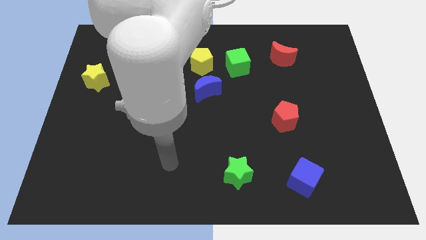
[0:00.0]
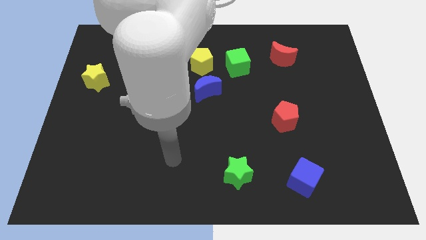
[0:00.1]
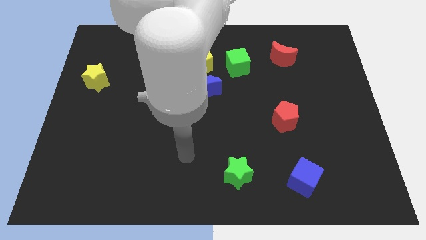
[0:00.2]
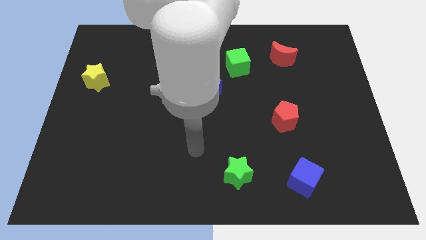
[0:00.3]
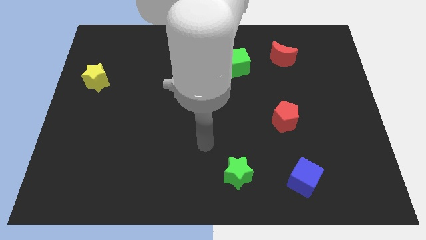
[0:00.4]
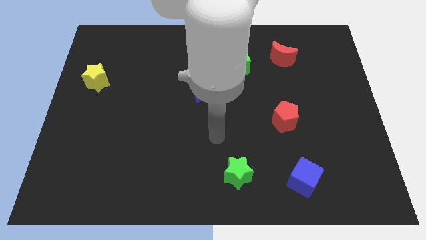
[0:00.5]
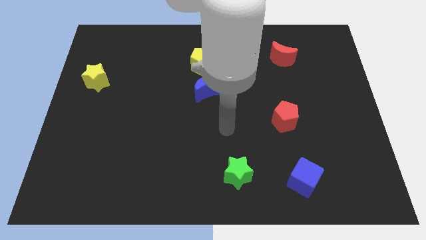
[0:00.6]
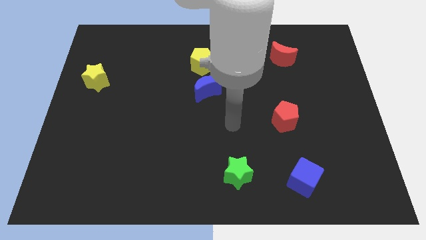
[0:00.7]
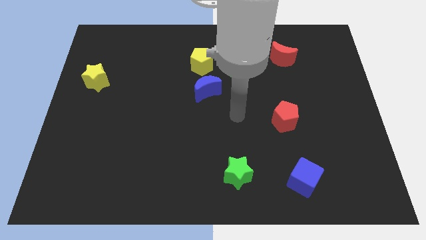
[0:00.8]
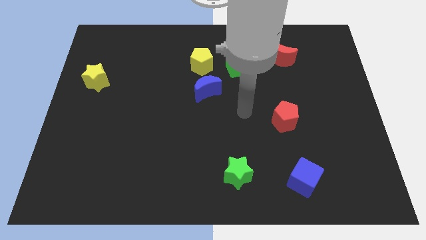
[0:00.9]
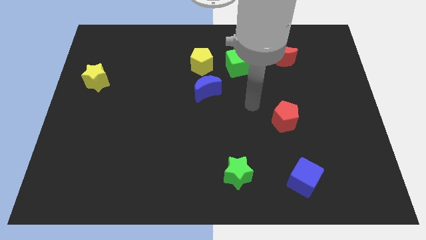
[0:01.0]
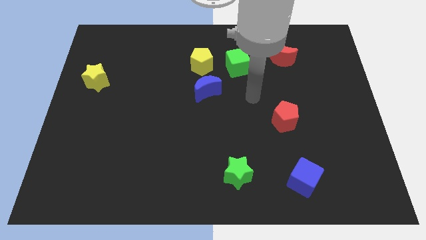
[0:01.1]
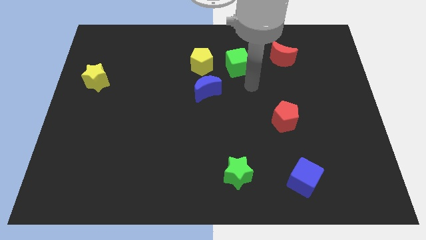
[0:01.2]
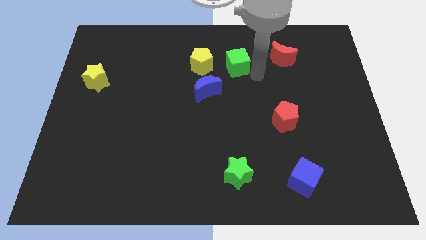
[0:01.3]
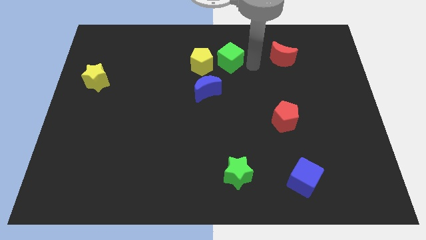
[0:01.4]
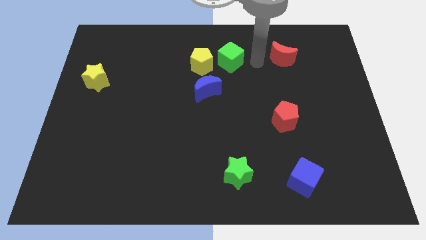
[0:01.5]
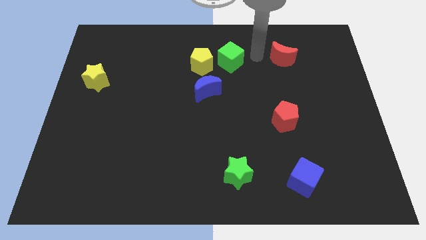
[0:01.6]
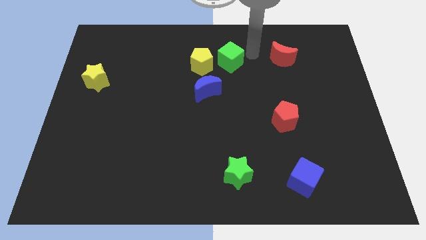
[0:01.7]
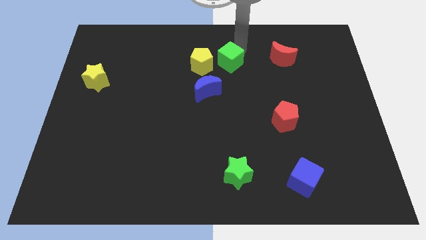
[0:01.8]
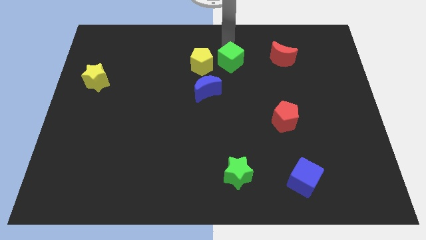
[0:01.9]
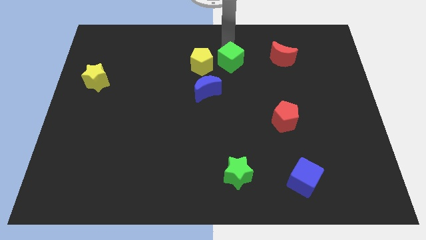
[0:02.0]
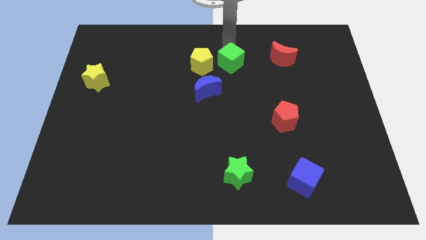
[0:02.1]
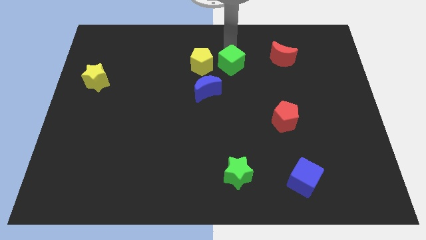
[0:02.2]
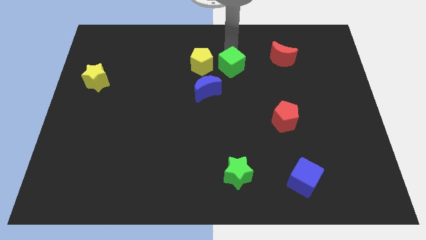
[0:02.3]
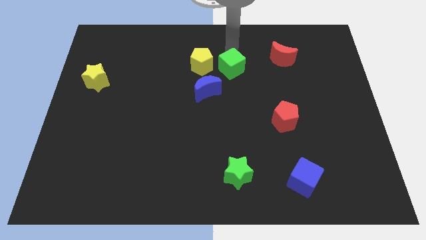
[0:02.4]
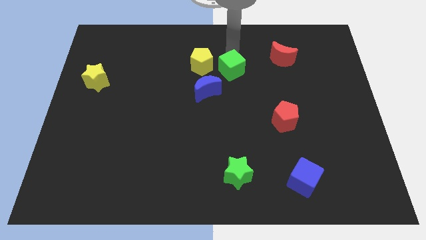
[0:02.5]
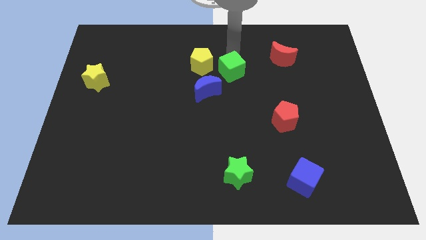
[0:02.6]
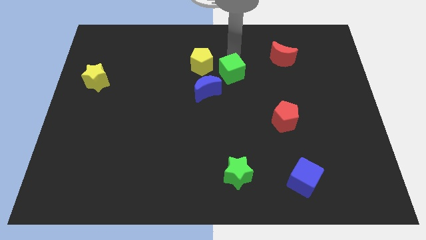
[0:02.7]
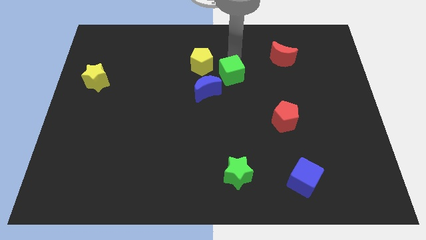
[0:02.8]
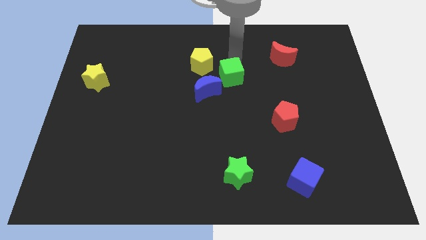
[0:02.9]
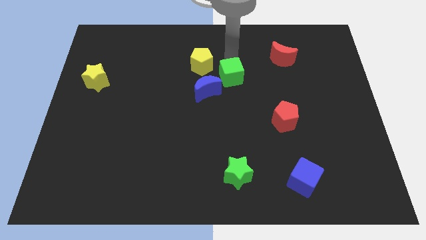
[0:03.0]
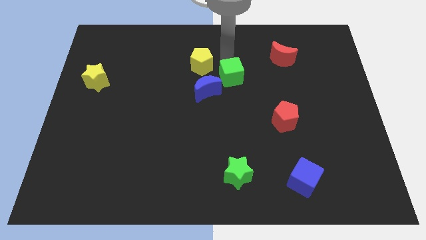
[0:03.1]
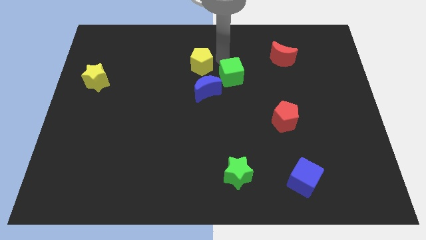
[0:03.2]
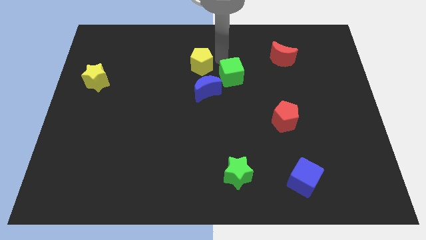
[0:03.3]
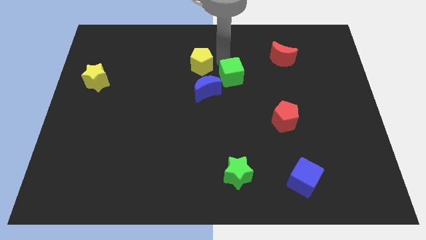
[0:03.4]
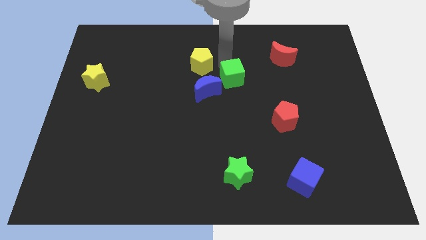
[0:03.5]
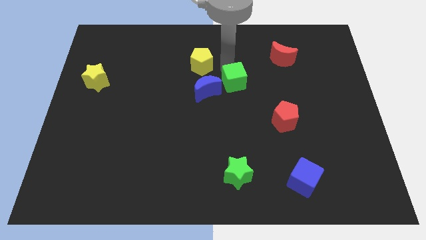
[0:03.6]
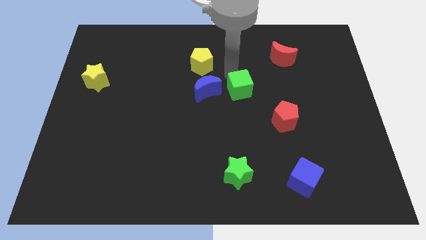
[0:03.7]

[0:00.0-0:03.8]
move the green cube somewhat down

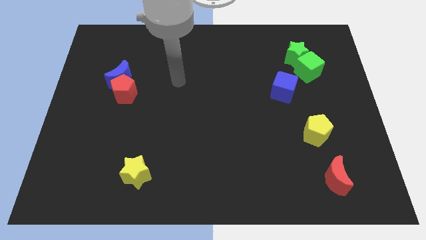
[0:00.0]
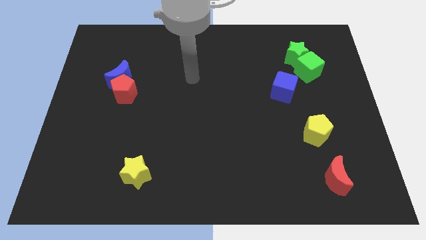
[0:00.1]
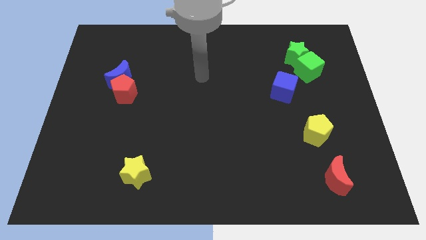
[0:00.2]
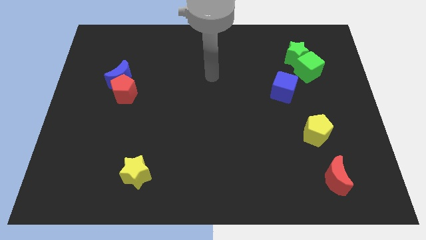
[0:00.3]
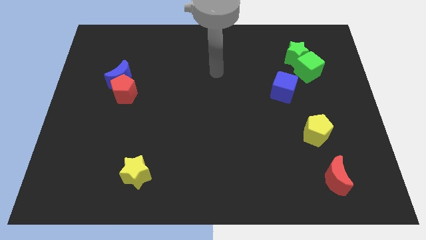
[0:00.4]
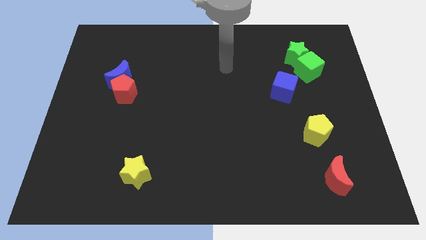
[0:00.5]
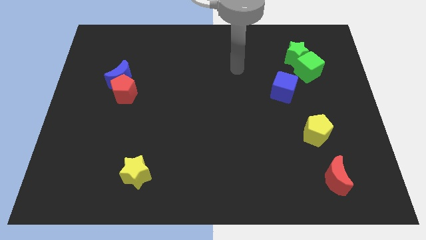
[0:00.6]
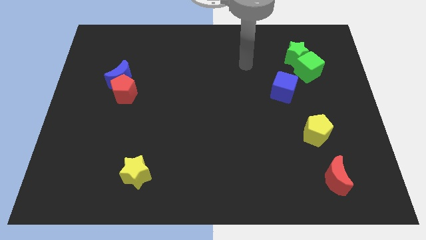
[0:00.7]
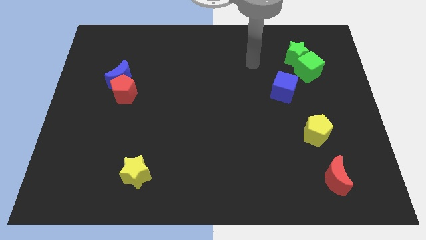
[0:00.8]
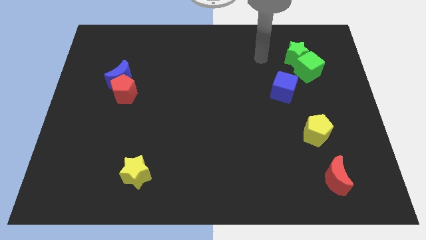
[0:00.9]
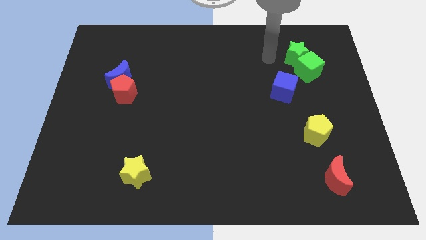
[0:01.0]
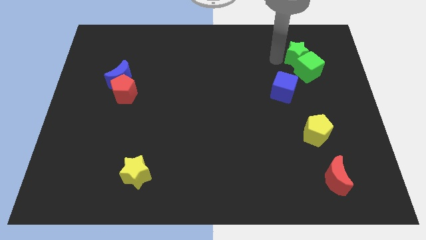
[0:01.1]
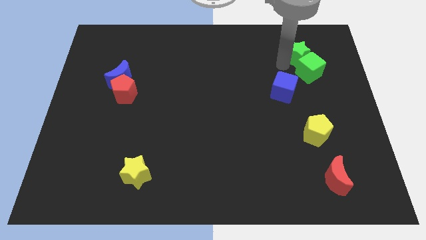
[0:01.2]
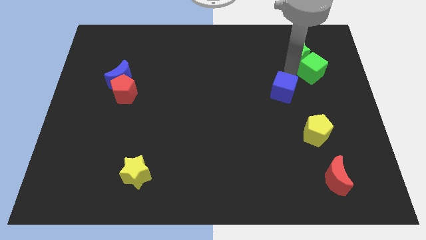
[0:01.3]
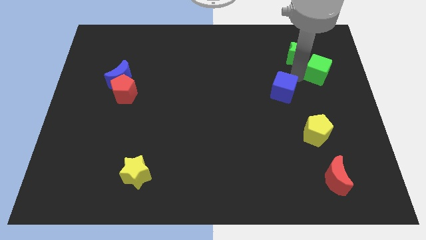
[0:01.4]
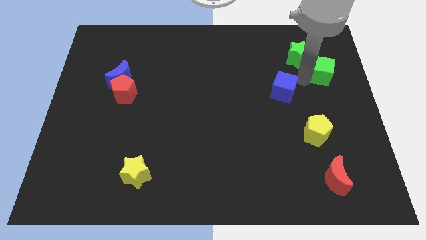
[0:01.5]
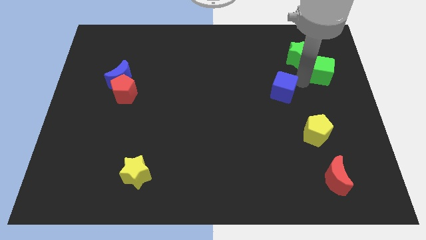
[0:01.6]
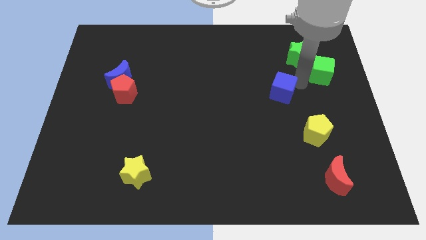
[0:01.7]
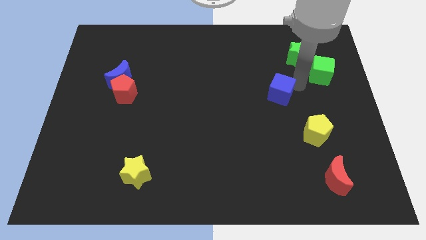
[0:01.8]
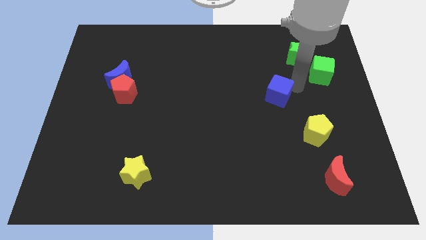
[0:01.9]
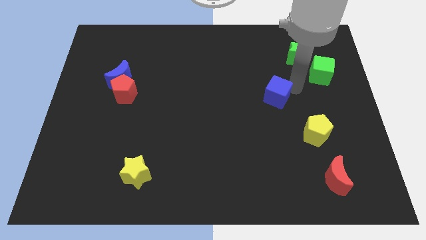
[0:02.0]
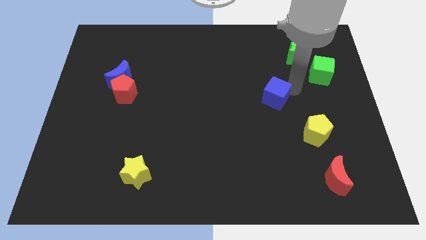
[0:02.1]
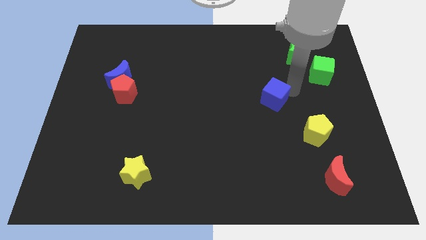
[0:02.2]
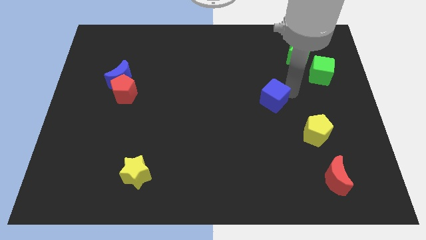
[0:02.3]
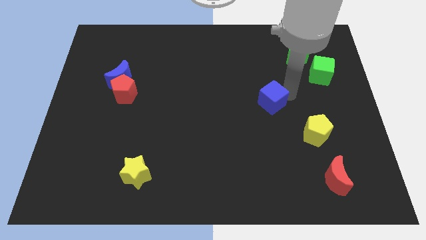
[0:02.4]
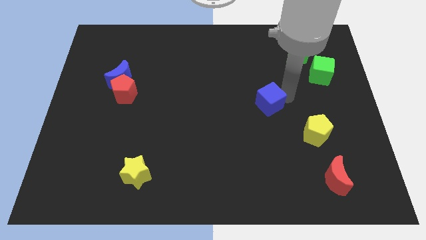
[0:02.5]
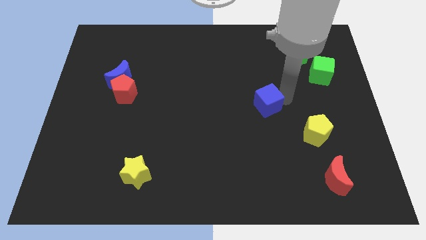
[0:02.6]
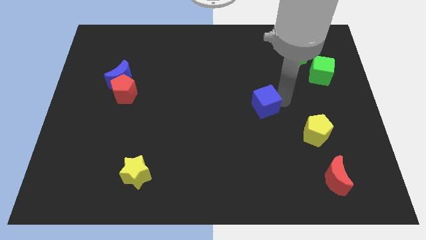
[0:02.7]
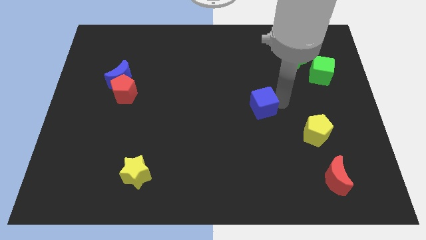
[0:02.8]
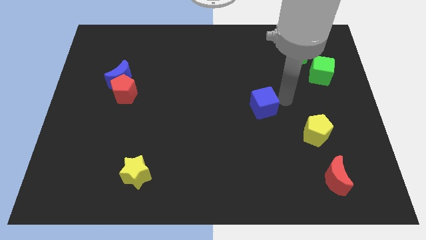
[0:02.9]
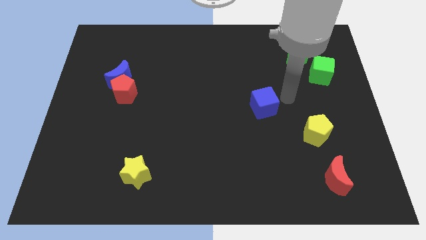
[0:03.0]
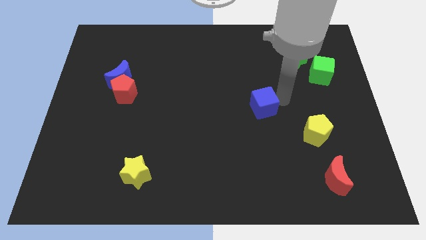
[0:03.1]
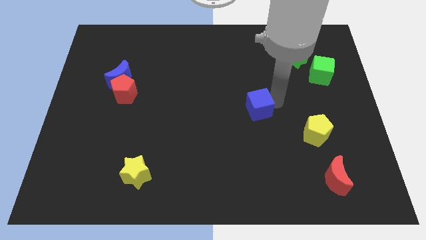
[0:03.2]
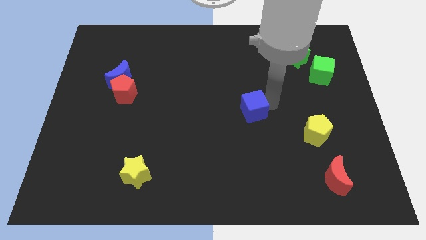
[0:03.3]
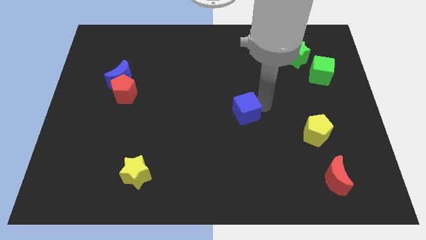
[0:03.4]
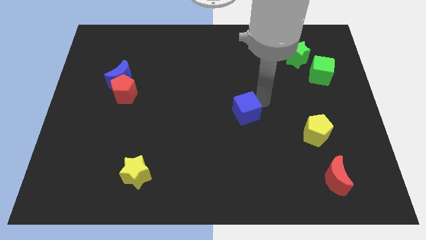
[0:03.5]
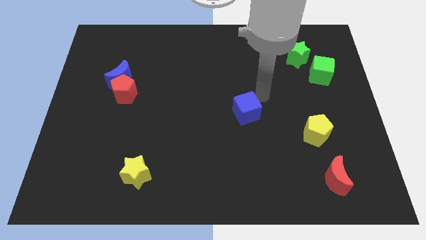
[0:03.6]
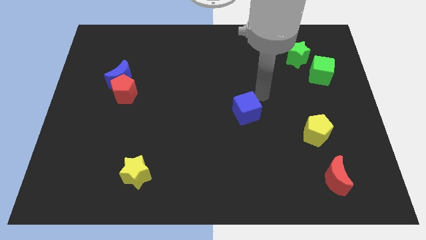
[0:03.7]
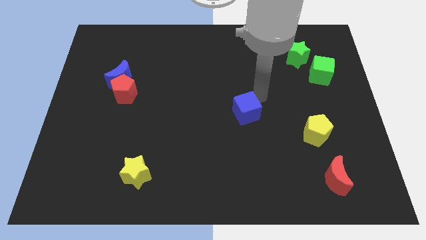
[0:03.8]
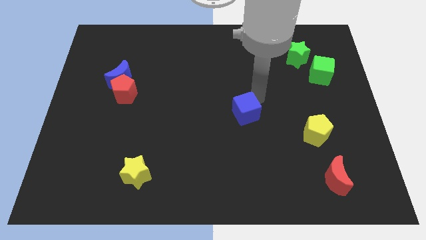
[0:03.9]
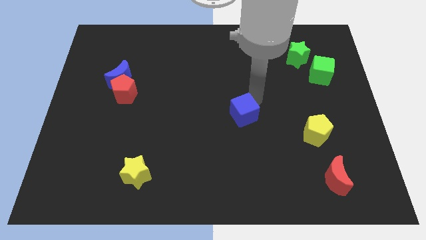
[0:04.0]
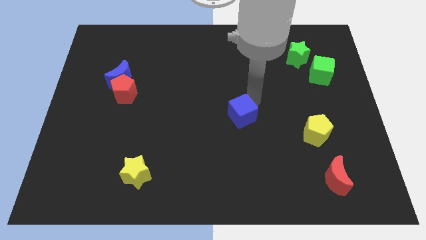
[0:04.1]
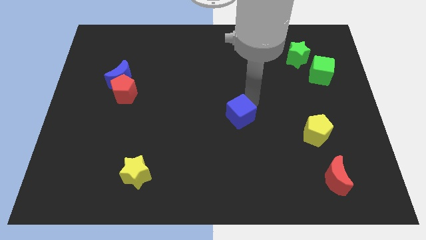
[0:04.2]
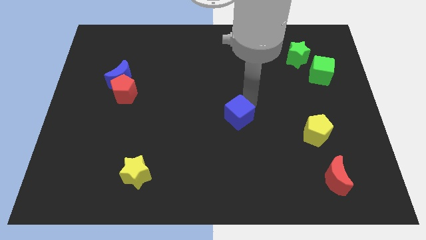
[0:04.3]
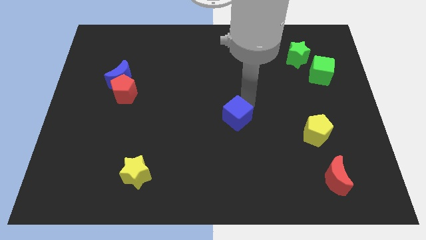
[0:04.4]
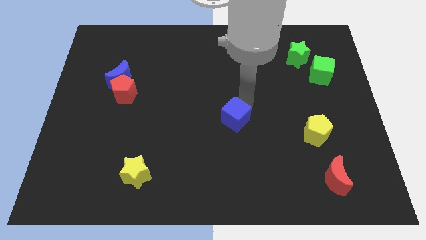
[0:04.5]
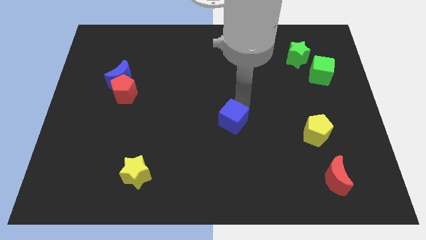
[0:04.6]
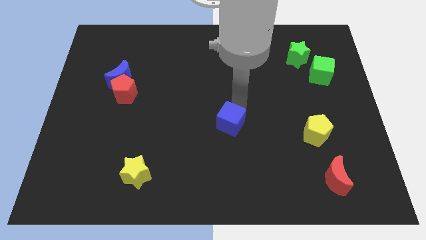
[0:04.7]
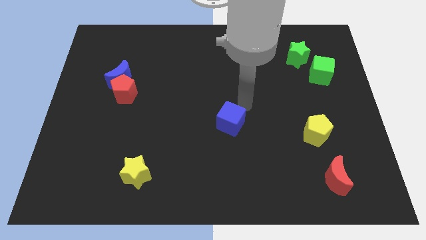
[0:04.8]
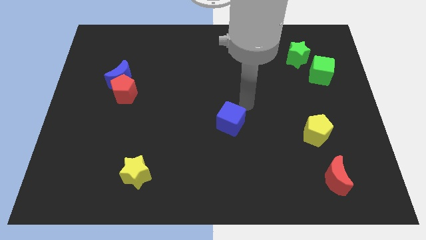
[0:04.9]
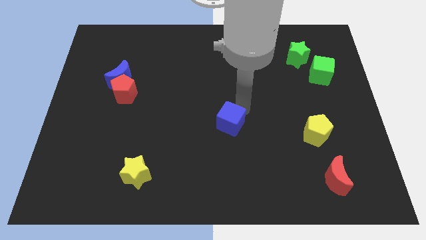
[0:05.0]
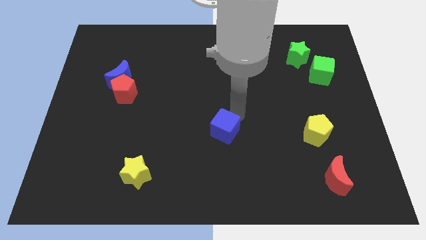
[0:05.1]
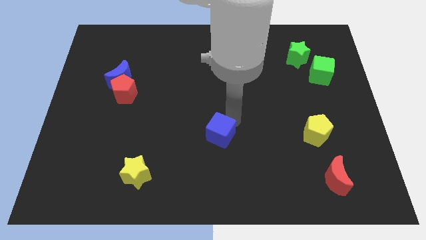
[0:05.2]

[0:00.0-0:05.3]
move the blue cube down and then to the left
